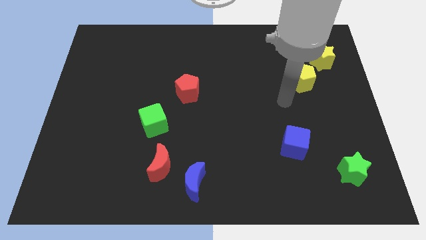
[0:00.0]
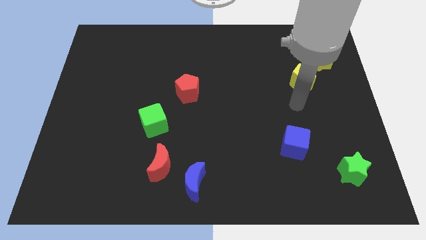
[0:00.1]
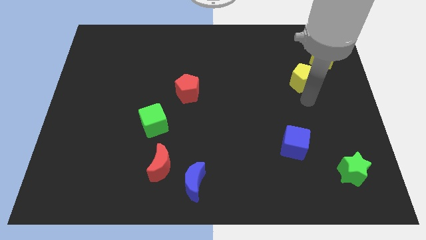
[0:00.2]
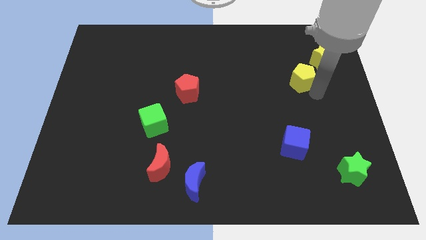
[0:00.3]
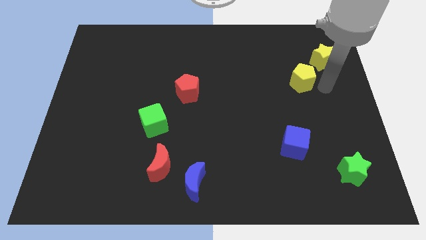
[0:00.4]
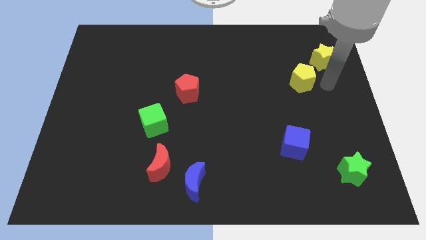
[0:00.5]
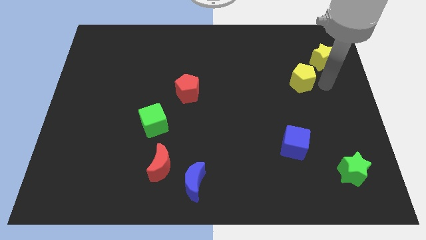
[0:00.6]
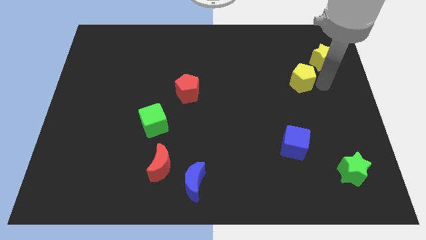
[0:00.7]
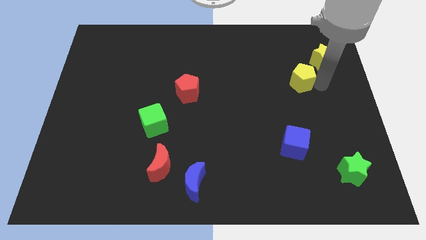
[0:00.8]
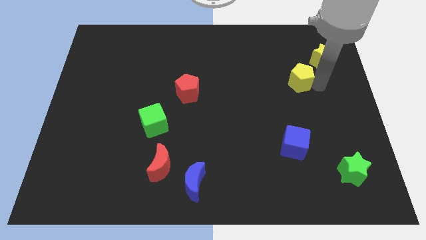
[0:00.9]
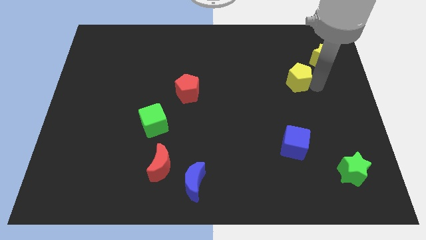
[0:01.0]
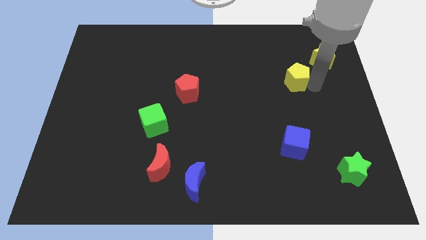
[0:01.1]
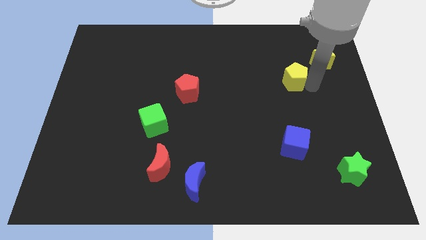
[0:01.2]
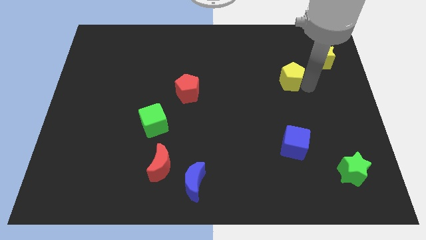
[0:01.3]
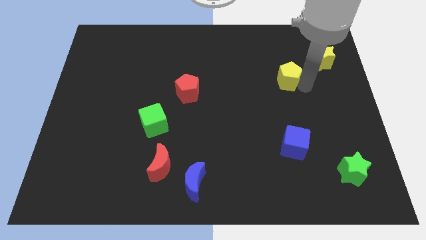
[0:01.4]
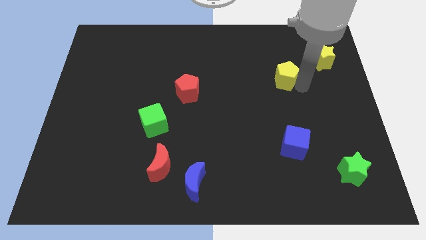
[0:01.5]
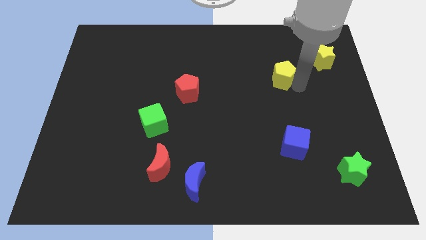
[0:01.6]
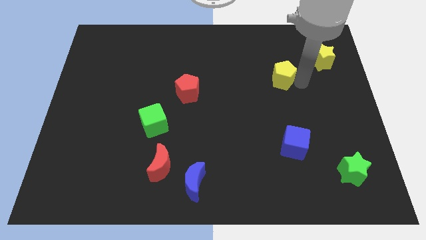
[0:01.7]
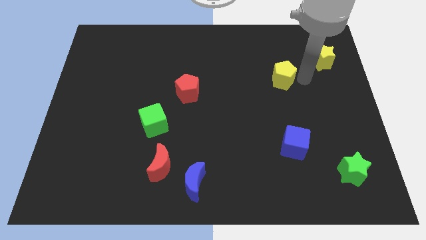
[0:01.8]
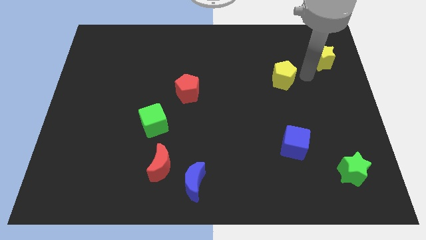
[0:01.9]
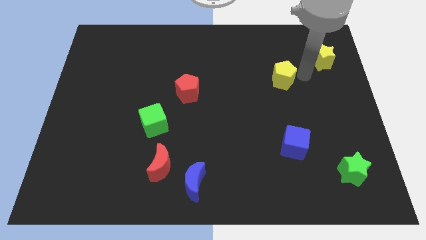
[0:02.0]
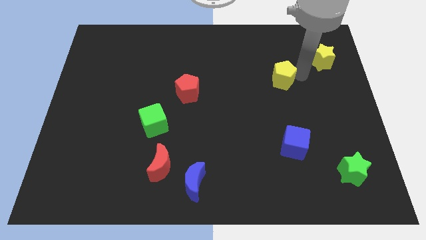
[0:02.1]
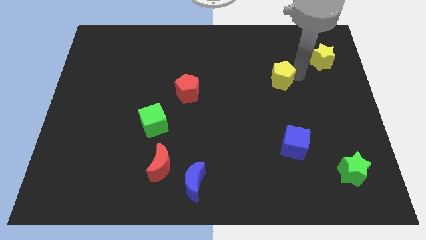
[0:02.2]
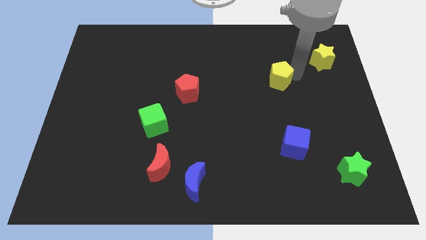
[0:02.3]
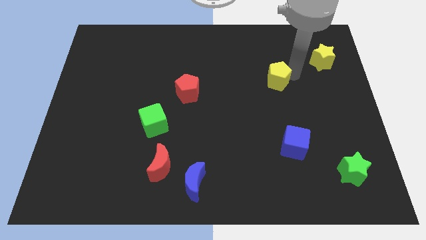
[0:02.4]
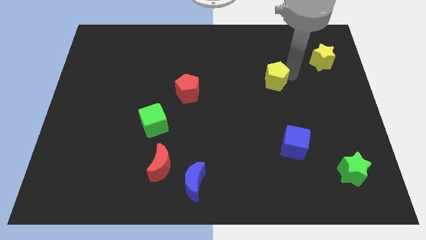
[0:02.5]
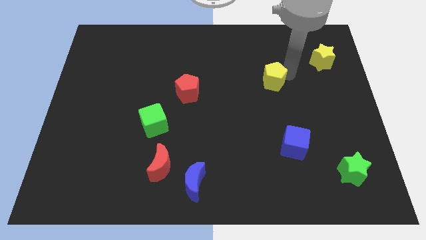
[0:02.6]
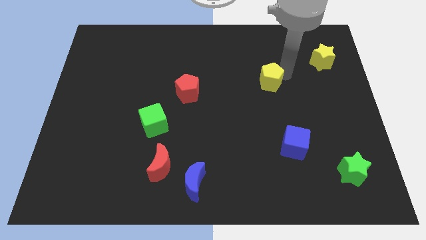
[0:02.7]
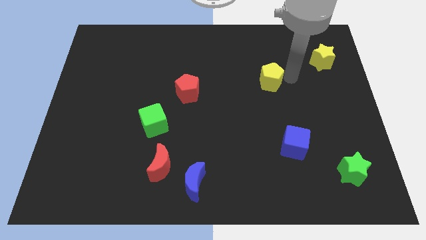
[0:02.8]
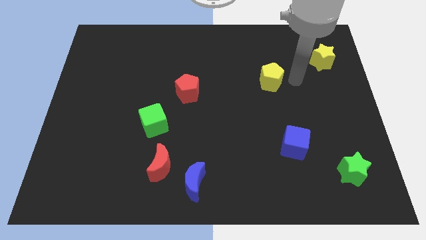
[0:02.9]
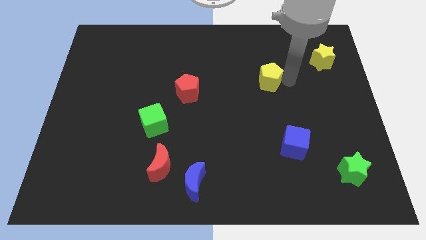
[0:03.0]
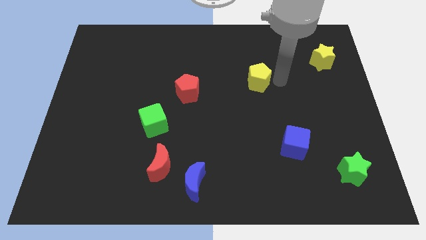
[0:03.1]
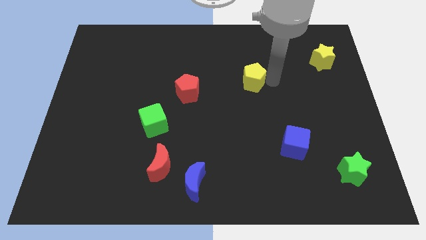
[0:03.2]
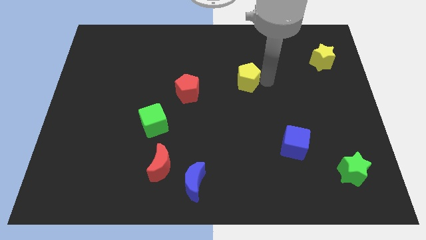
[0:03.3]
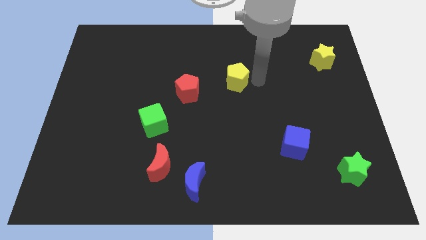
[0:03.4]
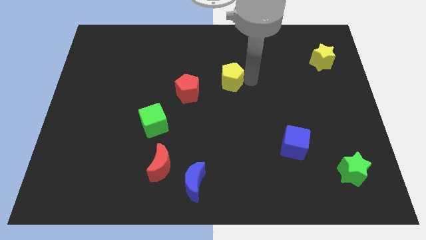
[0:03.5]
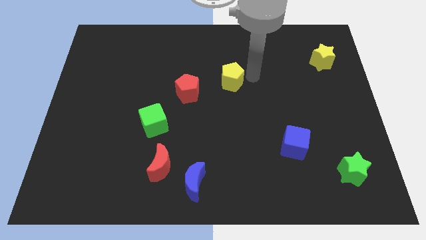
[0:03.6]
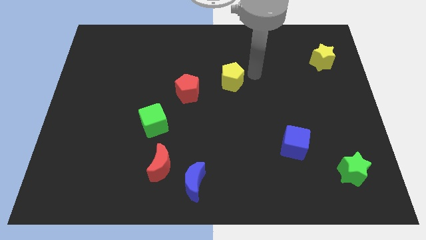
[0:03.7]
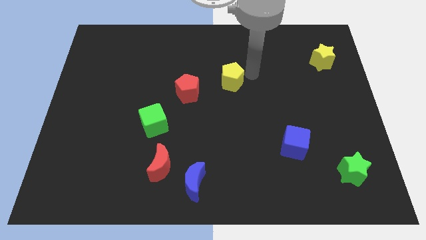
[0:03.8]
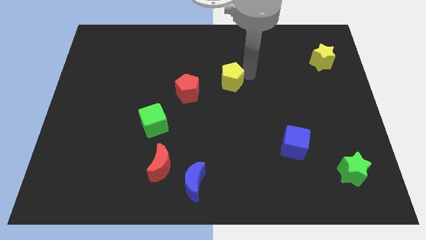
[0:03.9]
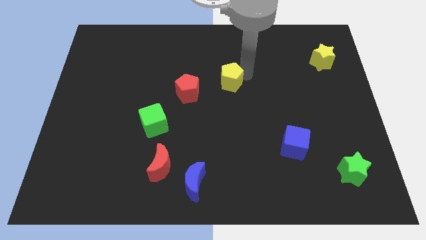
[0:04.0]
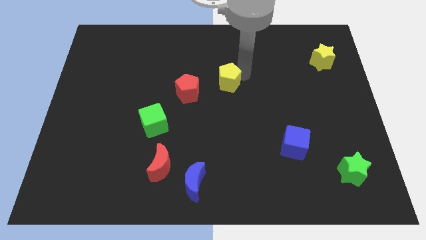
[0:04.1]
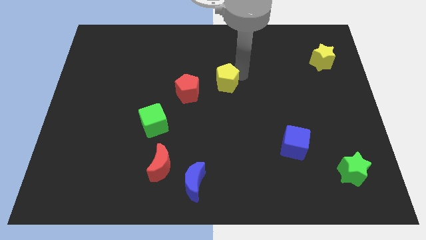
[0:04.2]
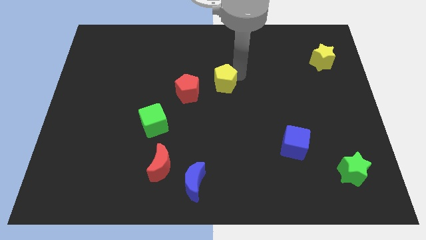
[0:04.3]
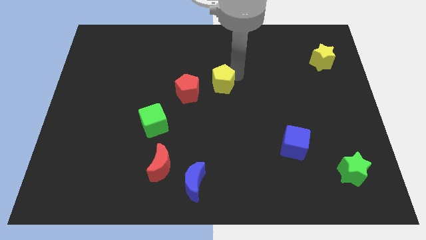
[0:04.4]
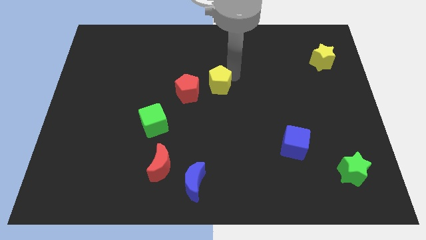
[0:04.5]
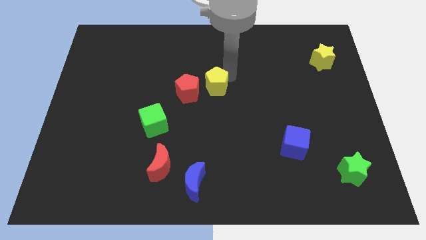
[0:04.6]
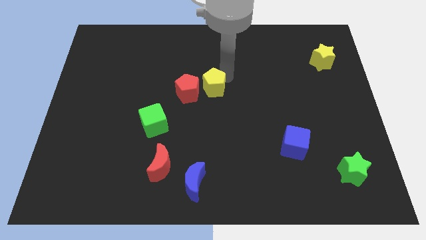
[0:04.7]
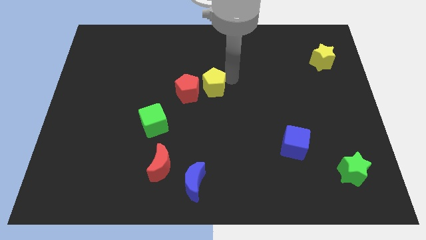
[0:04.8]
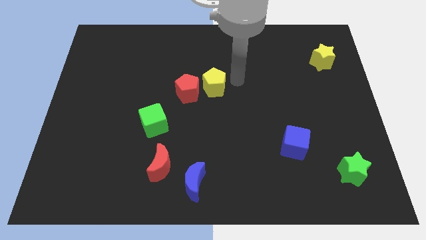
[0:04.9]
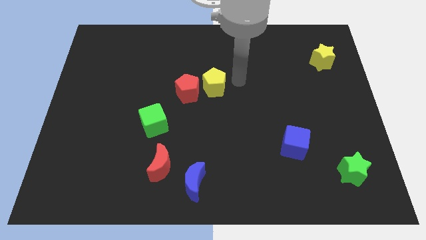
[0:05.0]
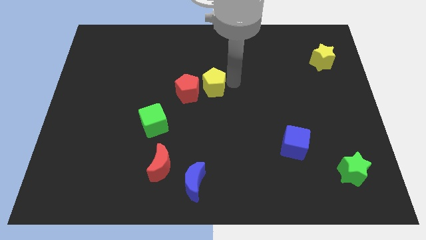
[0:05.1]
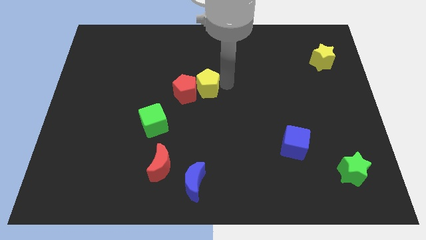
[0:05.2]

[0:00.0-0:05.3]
push the yellow pentagon close to the red pentagon

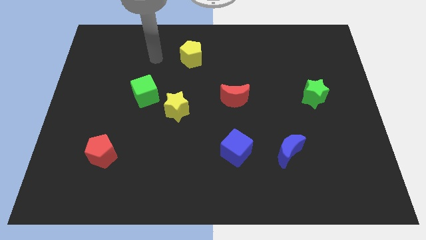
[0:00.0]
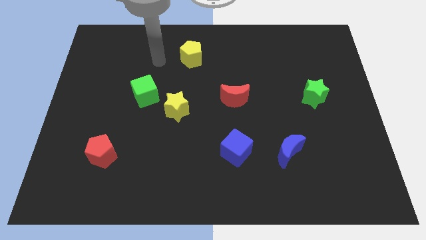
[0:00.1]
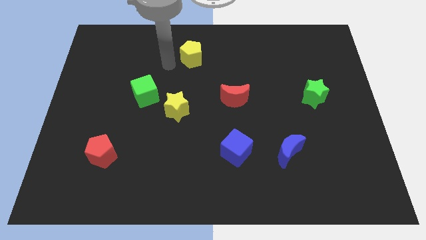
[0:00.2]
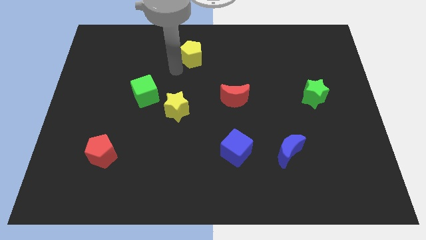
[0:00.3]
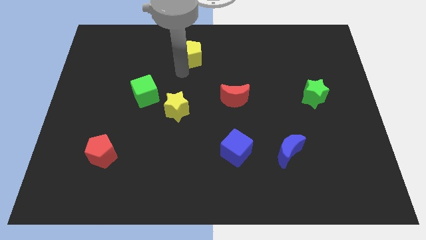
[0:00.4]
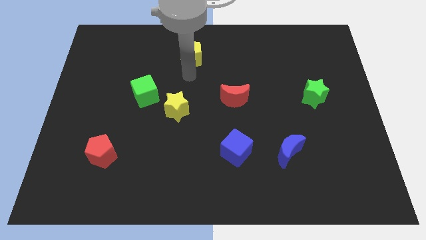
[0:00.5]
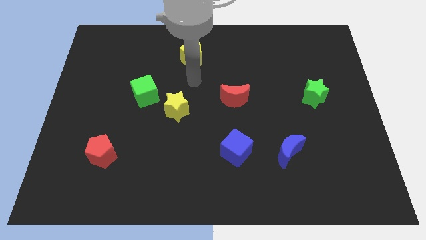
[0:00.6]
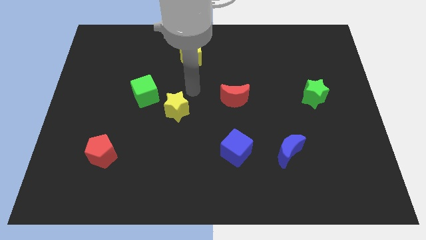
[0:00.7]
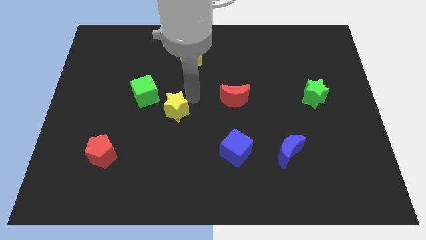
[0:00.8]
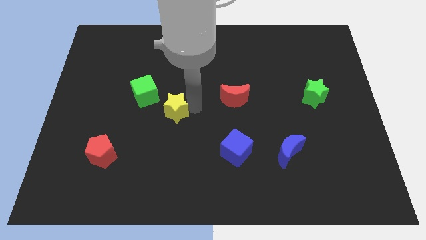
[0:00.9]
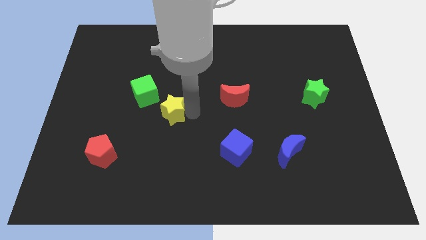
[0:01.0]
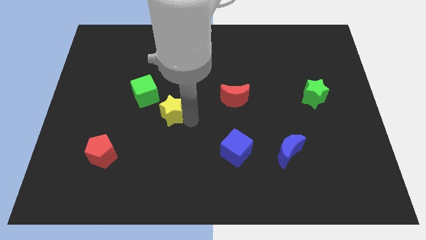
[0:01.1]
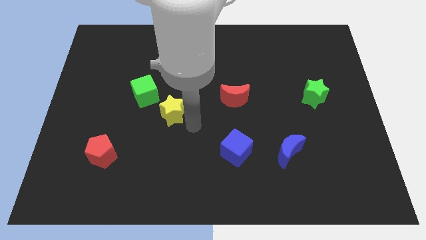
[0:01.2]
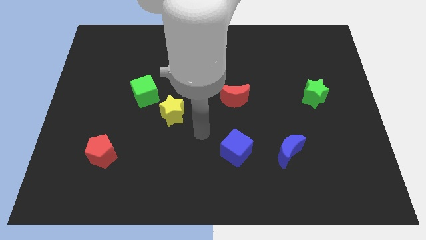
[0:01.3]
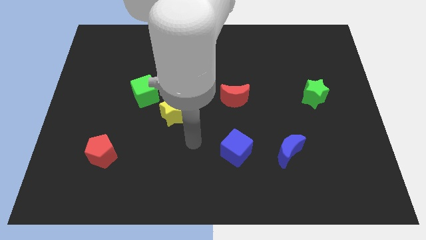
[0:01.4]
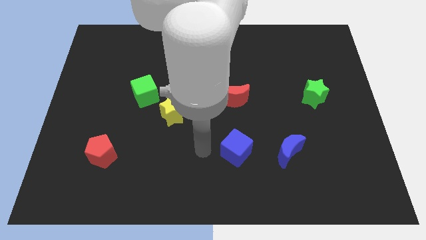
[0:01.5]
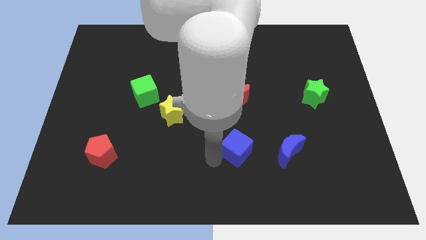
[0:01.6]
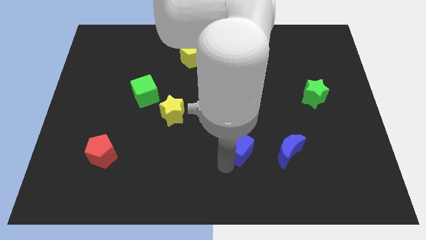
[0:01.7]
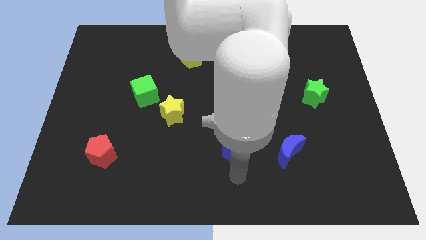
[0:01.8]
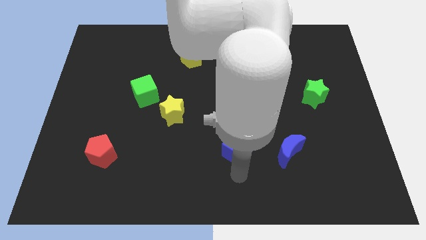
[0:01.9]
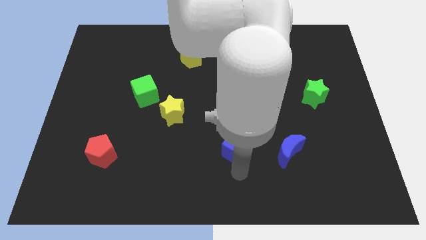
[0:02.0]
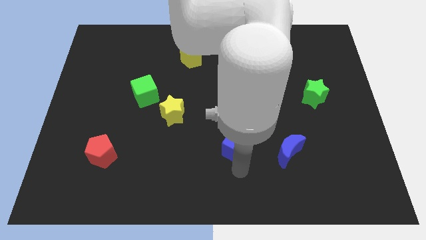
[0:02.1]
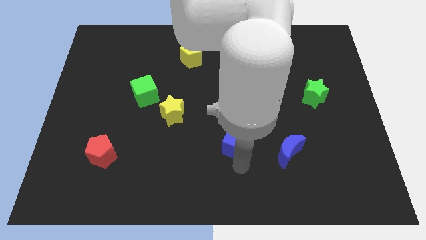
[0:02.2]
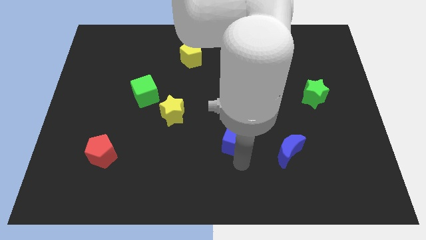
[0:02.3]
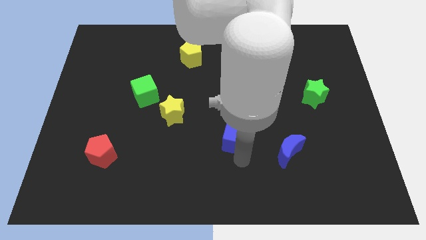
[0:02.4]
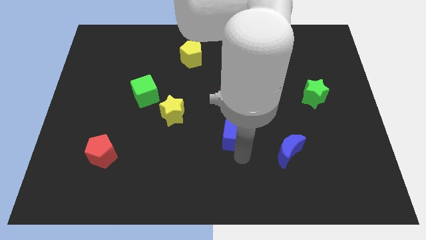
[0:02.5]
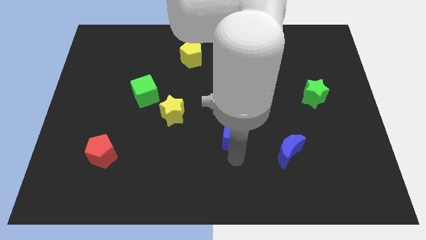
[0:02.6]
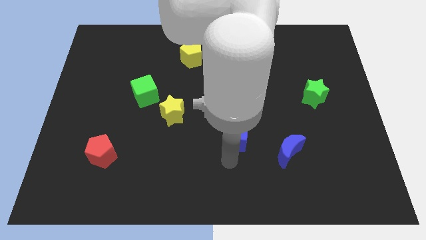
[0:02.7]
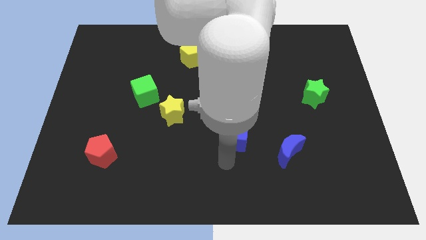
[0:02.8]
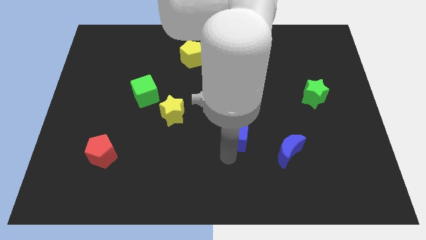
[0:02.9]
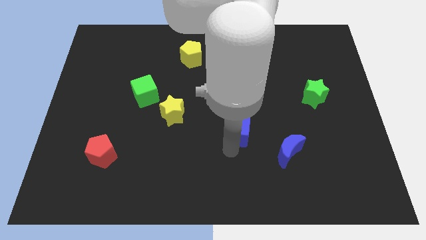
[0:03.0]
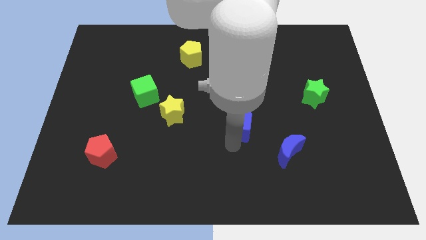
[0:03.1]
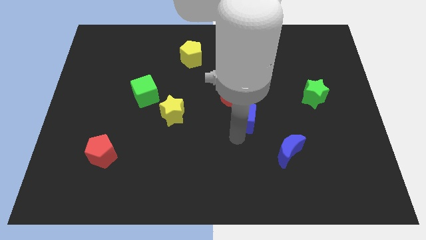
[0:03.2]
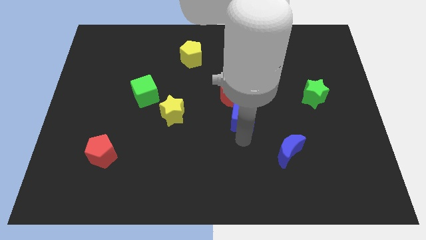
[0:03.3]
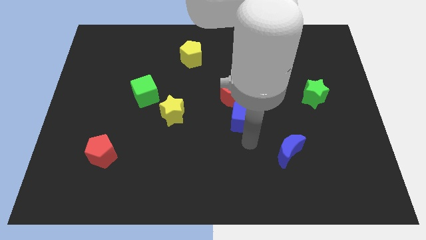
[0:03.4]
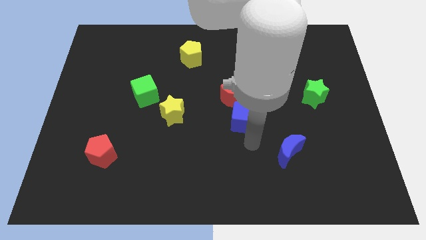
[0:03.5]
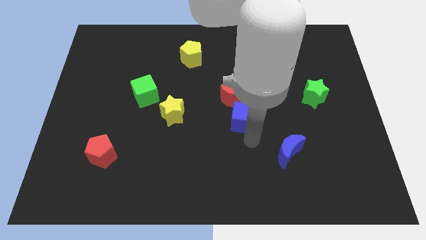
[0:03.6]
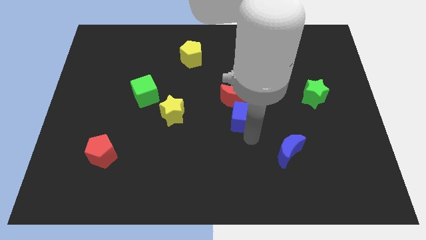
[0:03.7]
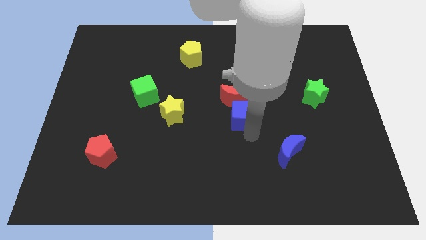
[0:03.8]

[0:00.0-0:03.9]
slide the blue cube next to the red moon
